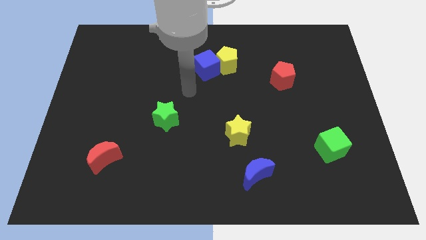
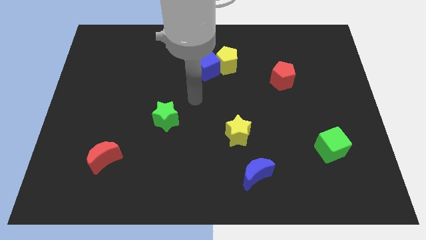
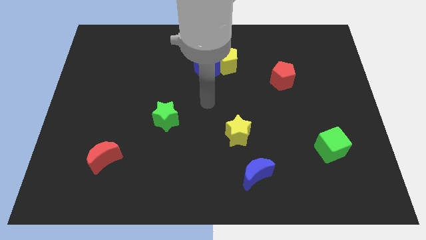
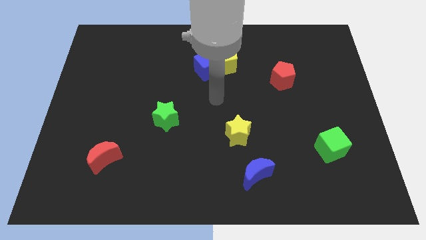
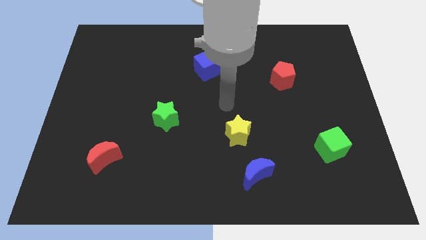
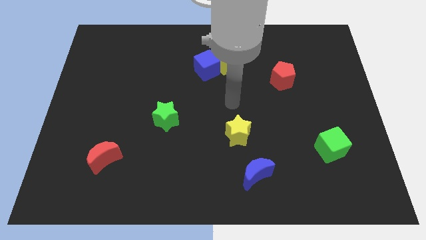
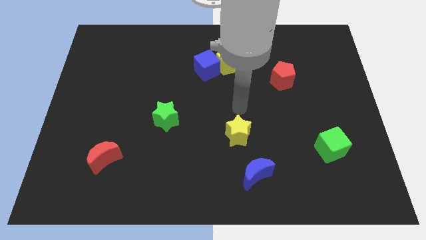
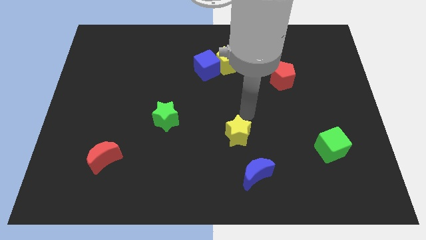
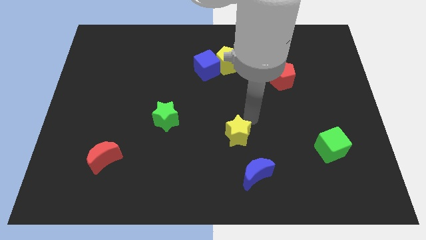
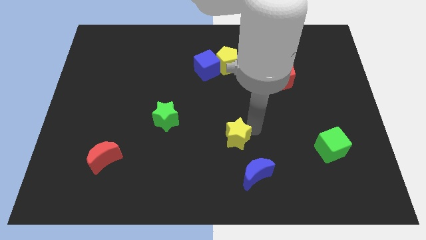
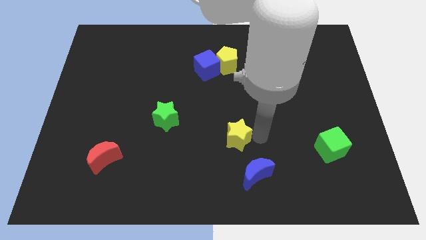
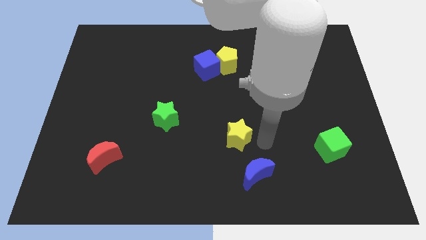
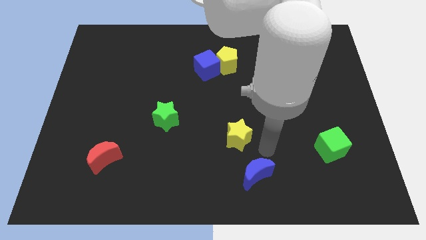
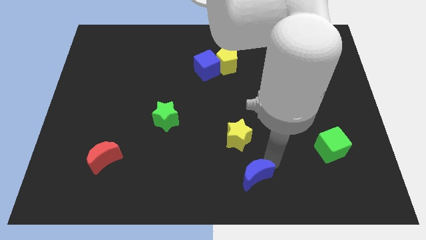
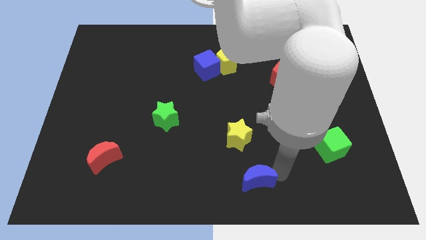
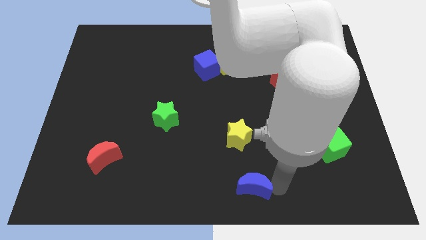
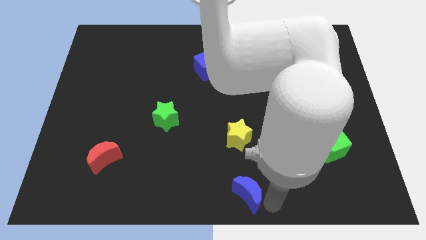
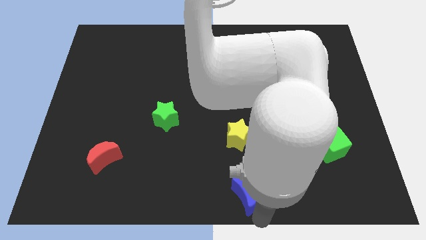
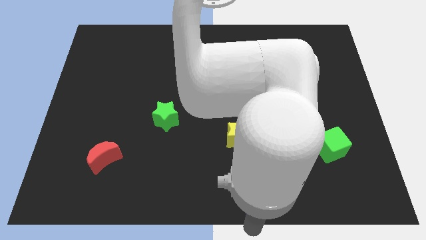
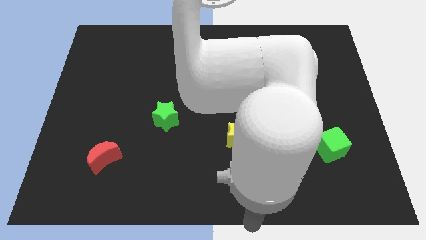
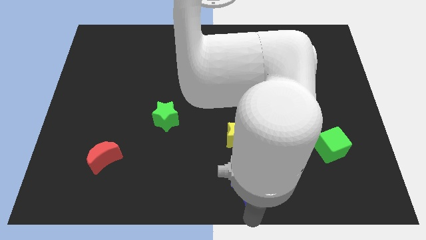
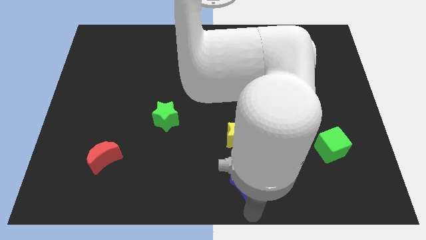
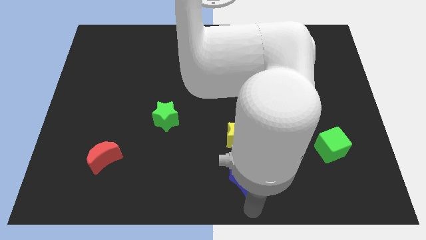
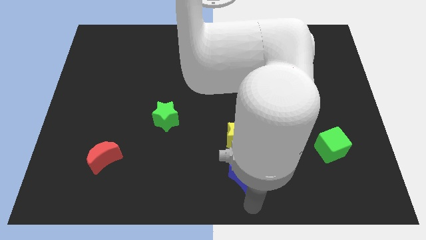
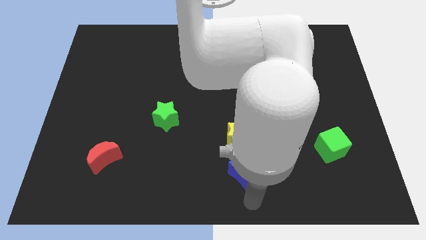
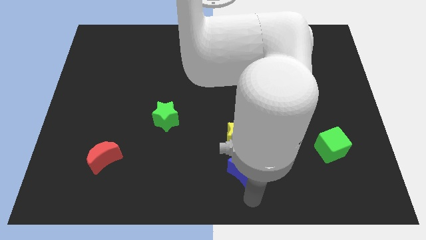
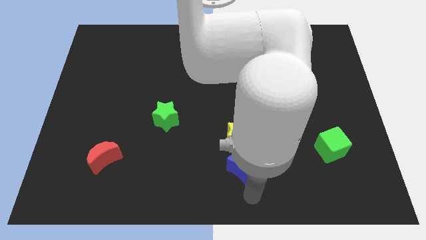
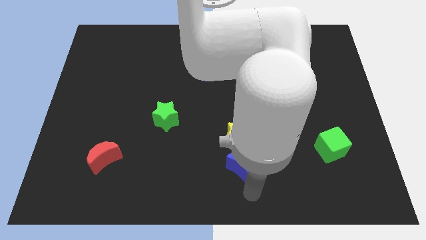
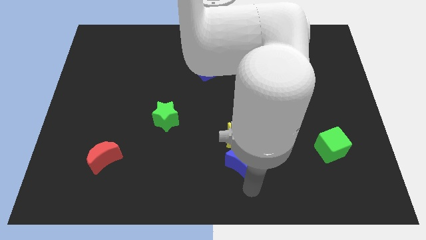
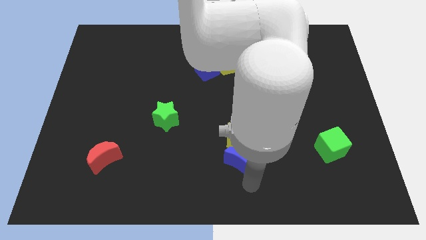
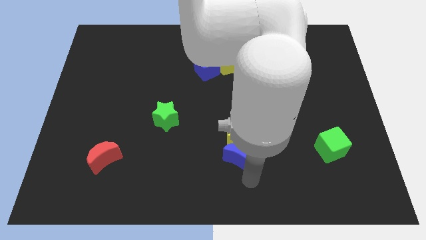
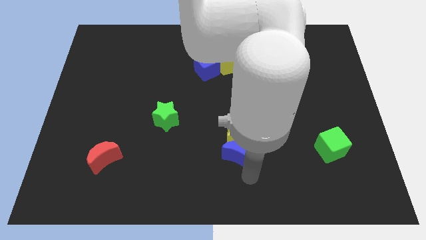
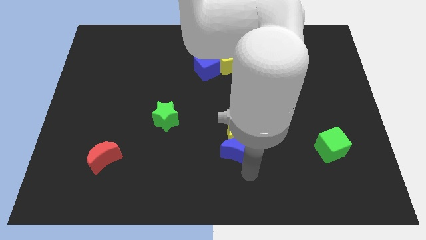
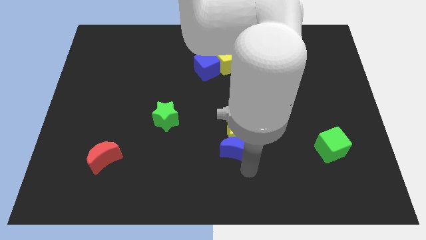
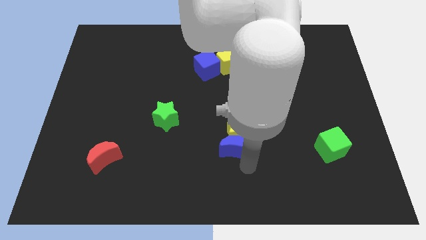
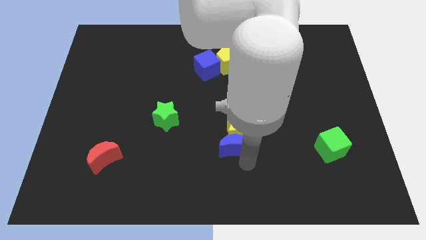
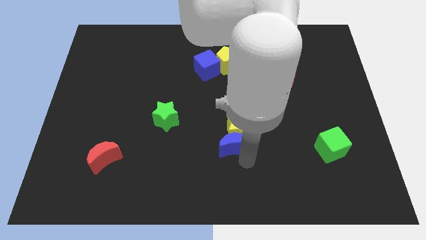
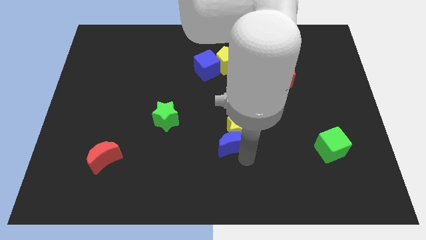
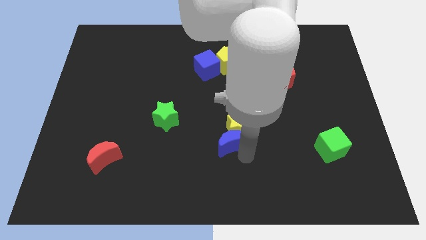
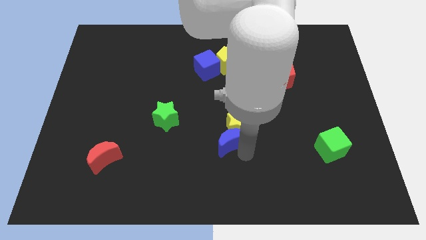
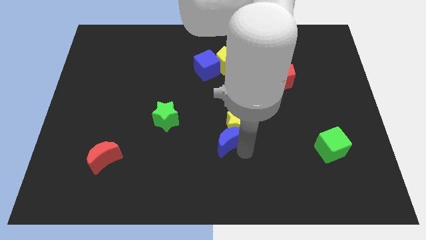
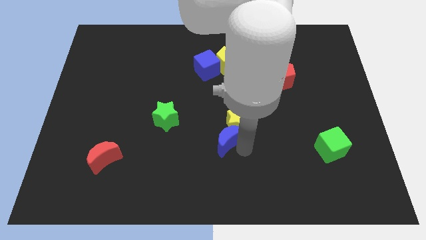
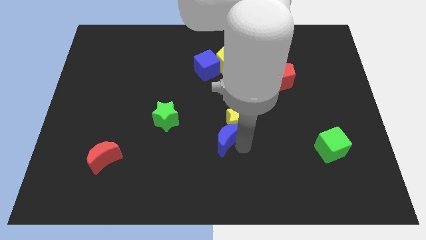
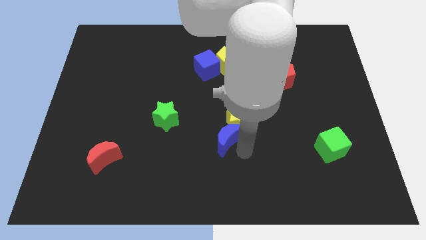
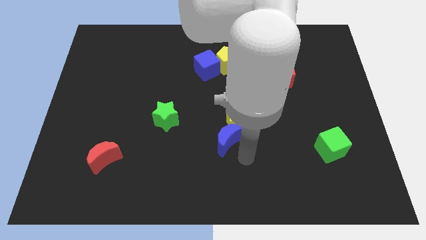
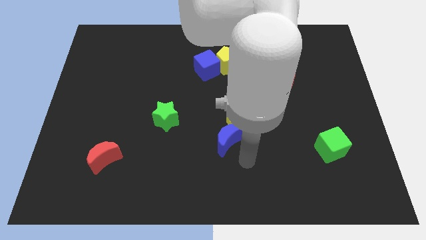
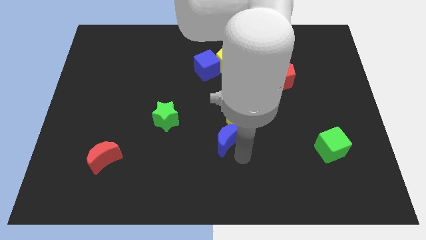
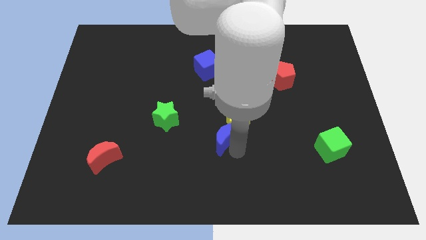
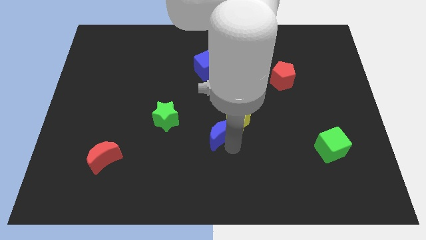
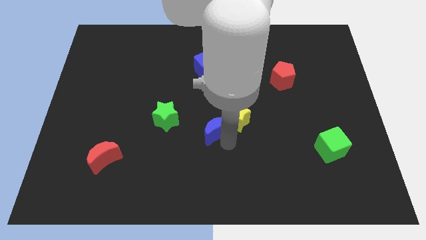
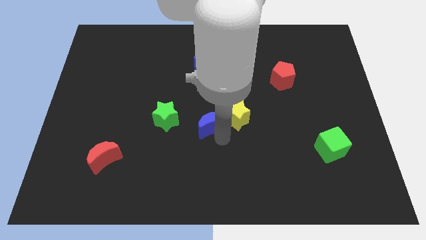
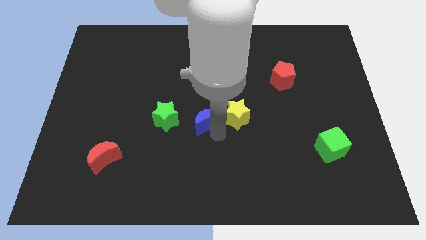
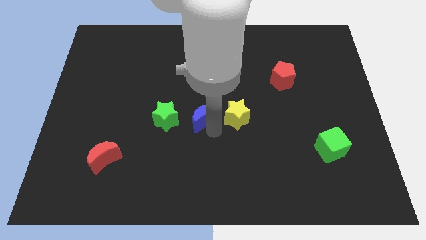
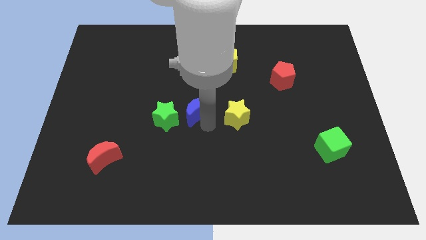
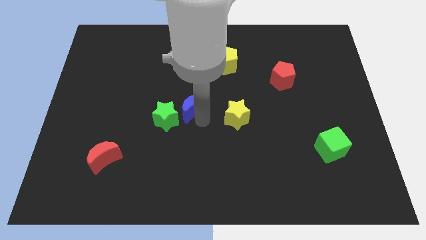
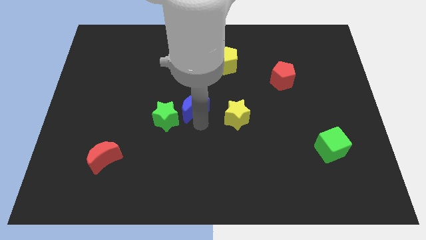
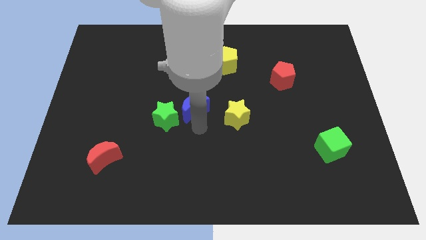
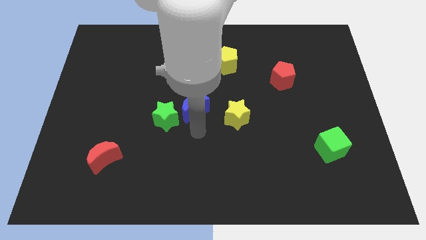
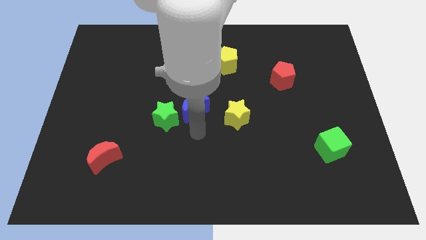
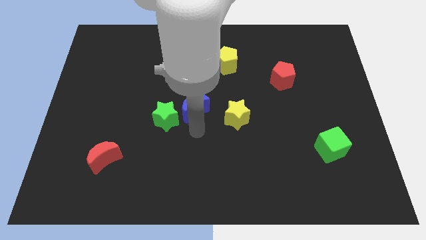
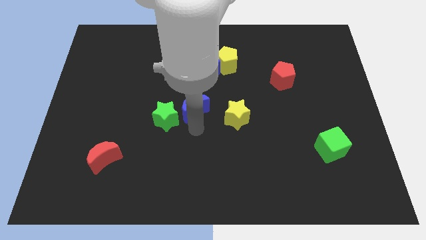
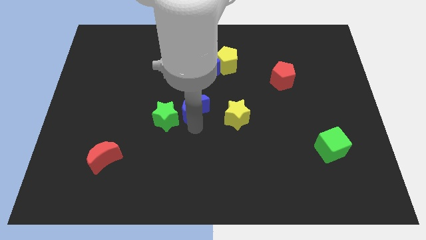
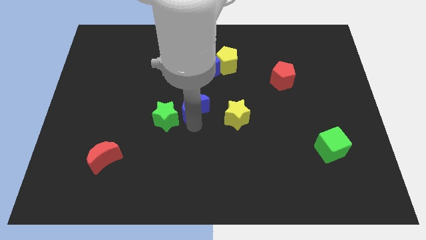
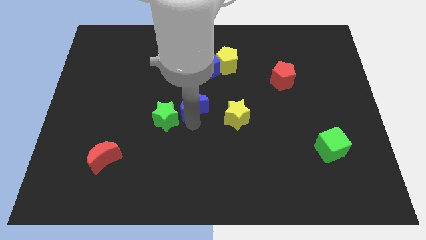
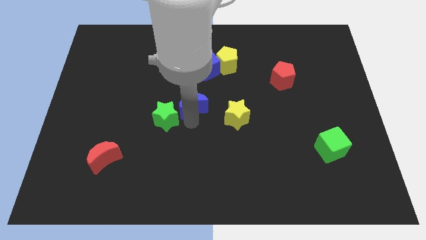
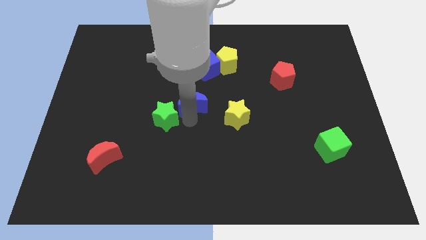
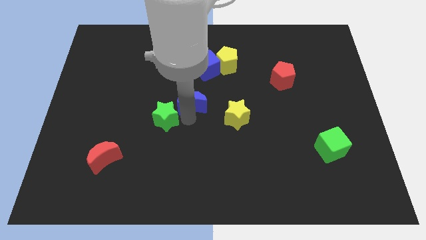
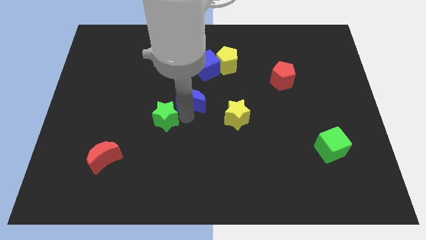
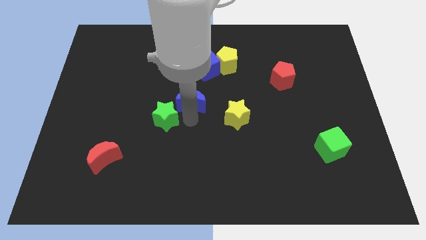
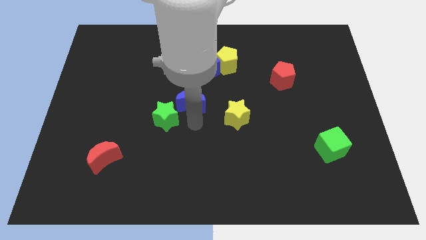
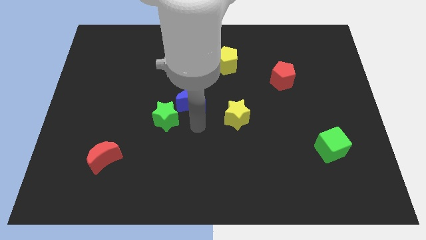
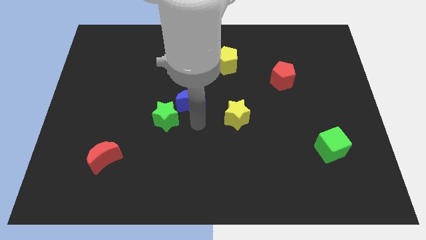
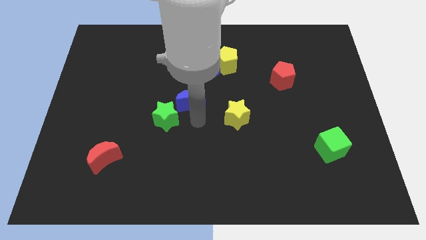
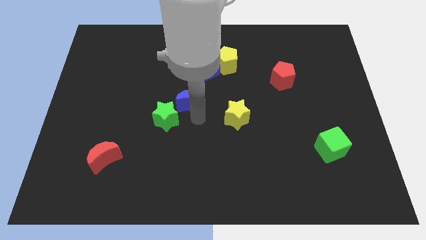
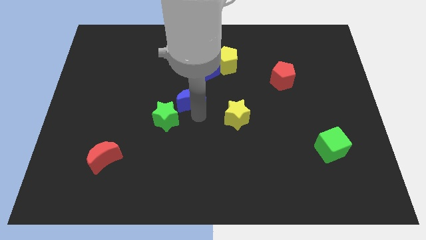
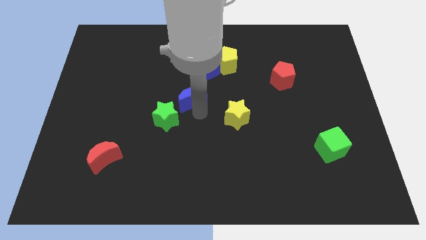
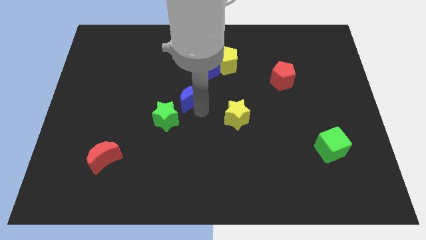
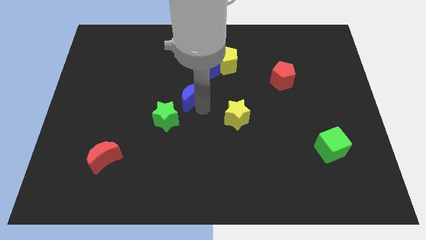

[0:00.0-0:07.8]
push the blue moon to the bottom left side of the blue cube
